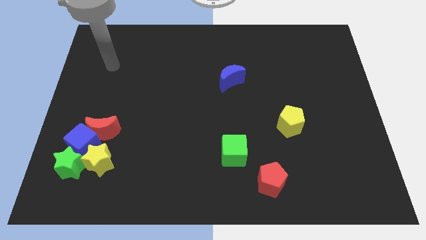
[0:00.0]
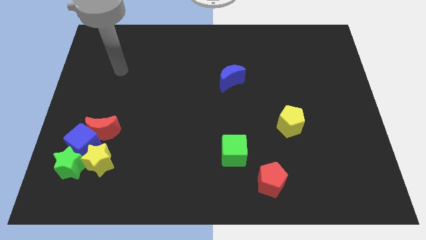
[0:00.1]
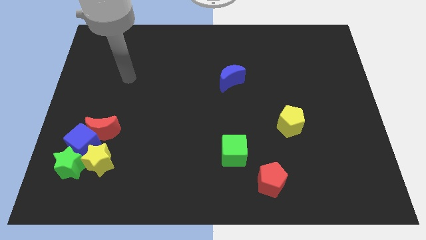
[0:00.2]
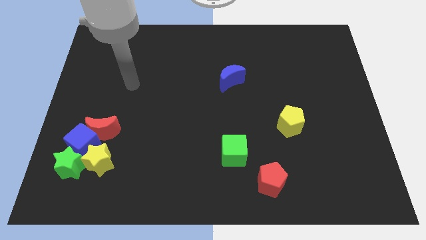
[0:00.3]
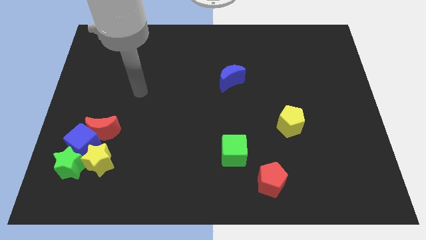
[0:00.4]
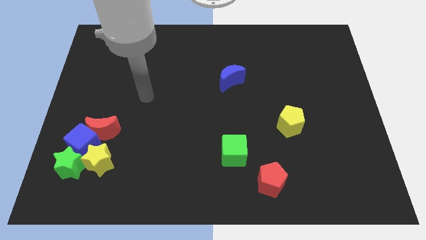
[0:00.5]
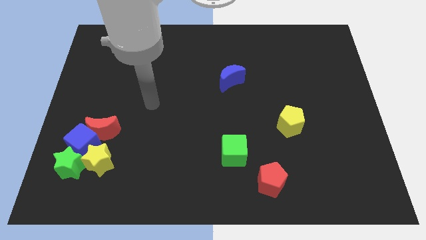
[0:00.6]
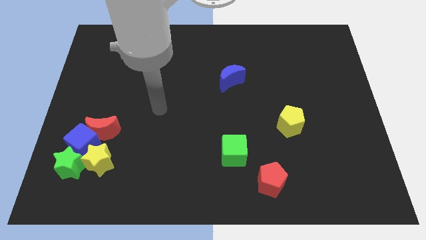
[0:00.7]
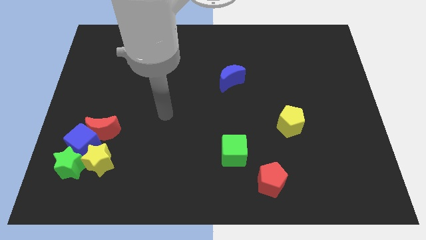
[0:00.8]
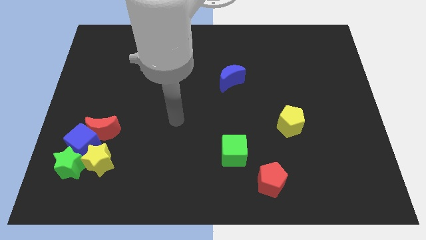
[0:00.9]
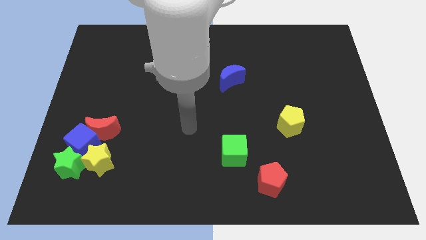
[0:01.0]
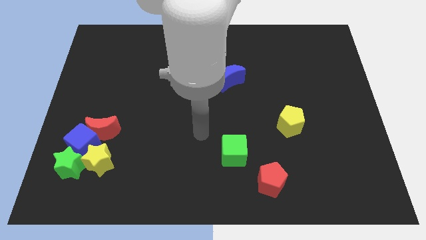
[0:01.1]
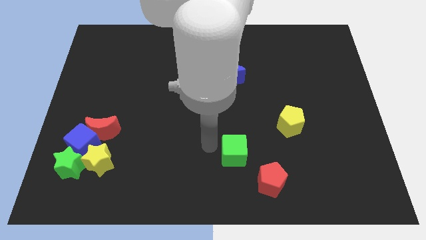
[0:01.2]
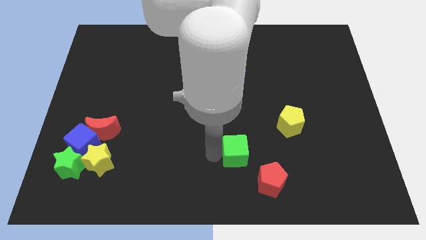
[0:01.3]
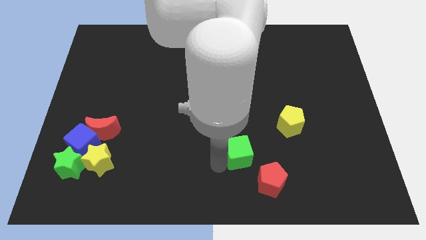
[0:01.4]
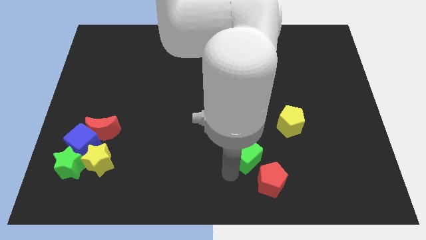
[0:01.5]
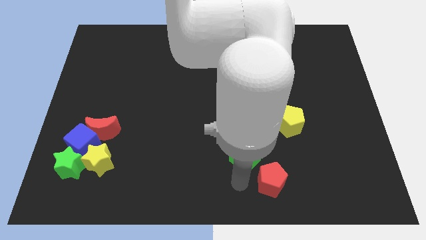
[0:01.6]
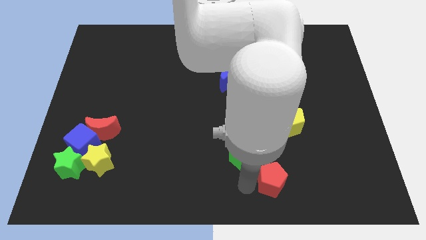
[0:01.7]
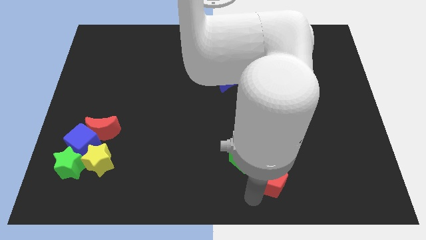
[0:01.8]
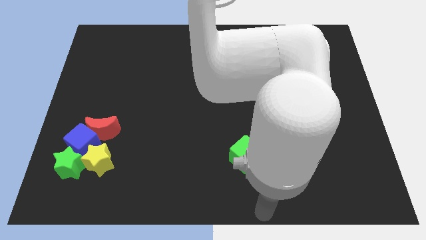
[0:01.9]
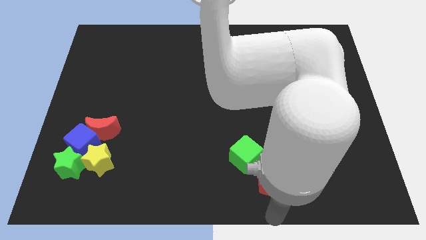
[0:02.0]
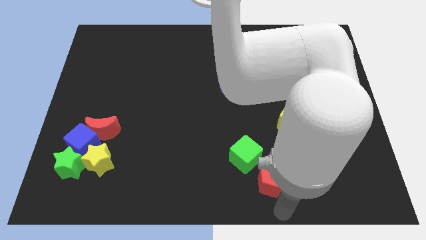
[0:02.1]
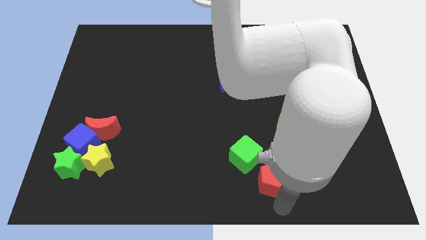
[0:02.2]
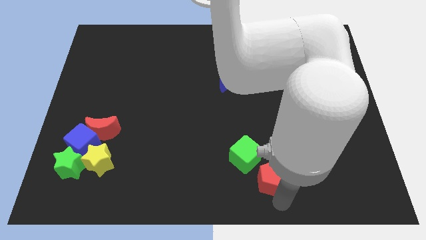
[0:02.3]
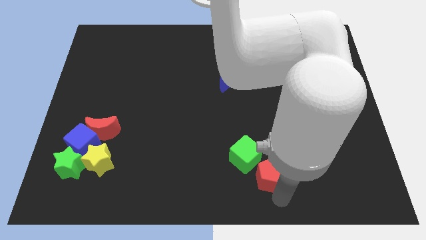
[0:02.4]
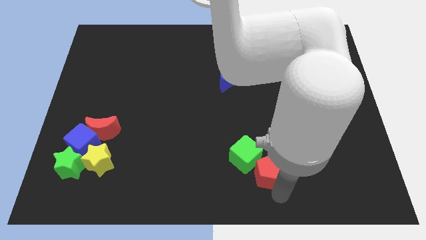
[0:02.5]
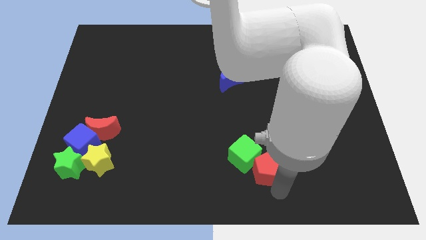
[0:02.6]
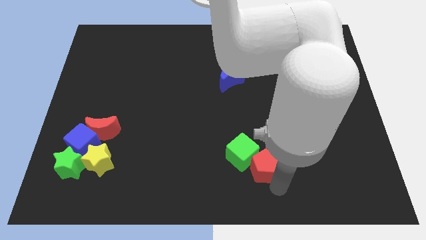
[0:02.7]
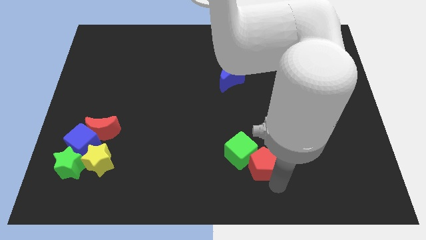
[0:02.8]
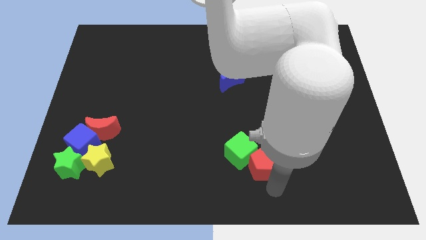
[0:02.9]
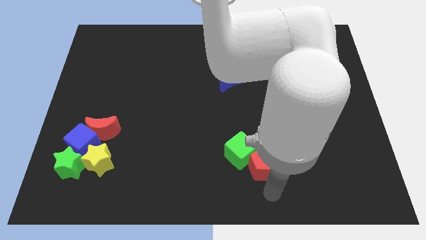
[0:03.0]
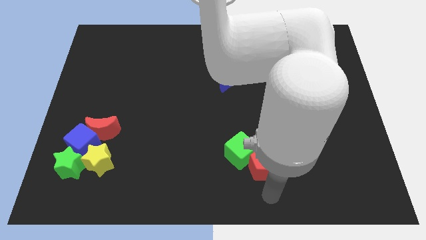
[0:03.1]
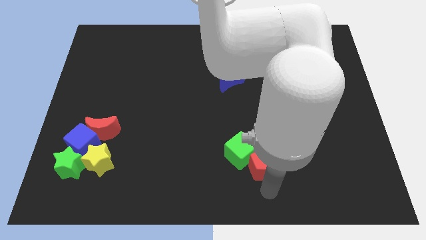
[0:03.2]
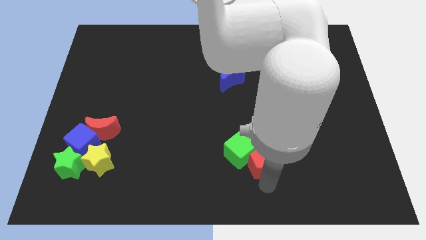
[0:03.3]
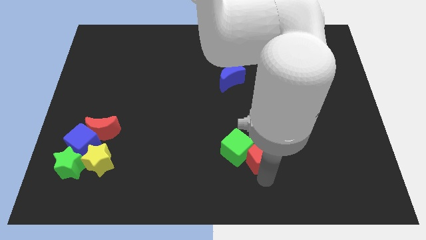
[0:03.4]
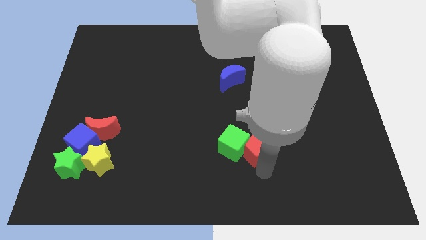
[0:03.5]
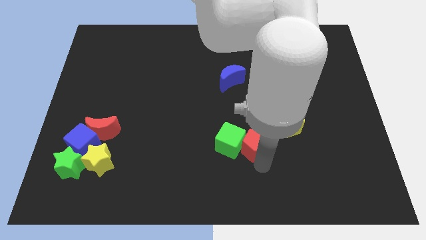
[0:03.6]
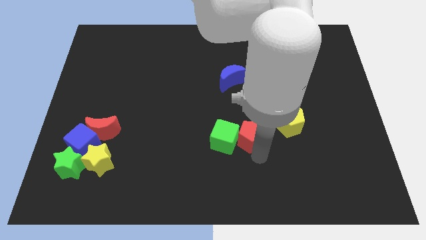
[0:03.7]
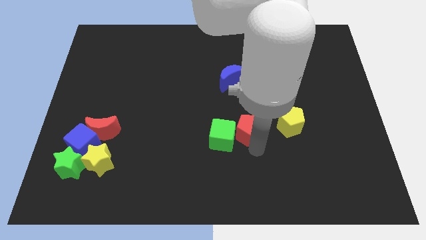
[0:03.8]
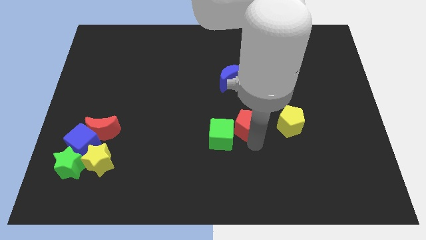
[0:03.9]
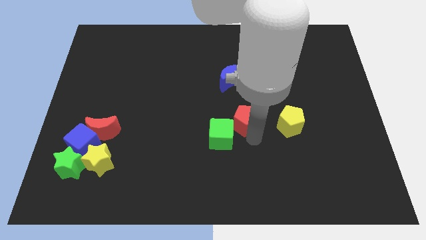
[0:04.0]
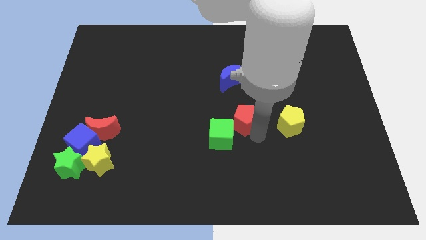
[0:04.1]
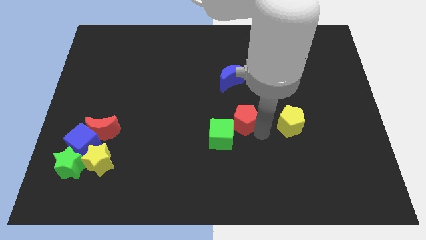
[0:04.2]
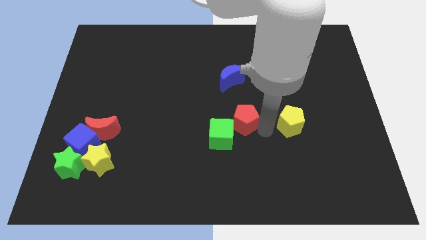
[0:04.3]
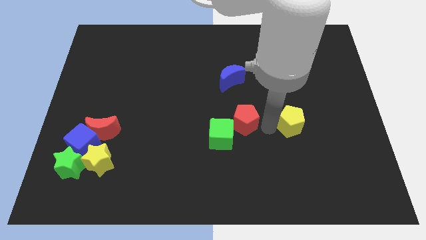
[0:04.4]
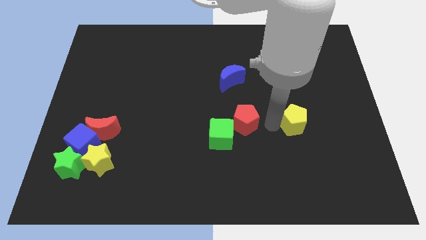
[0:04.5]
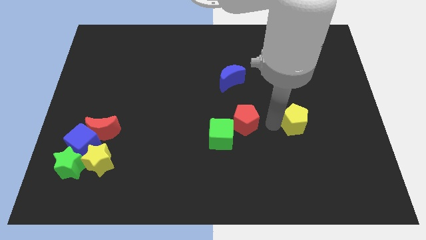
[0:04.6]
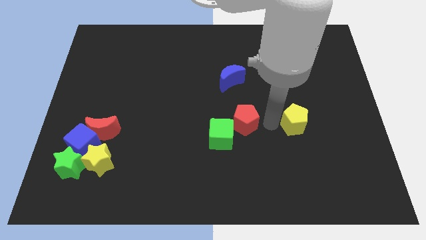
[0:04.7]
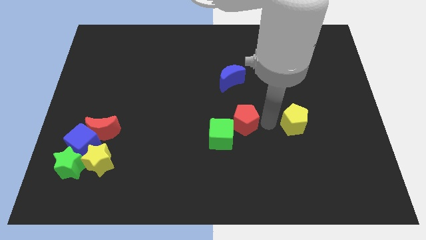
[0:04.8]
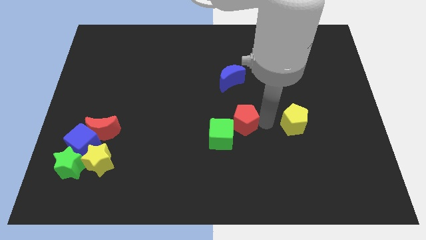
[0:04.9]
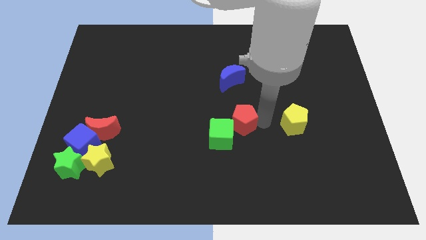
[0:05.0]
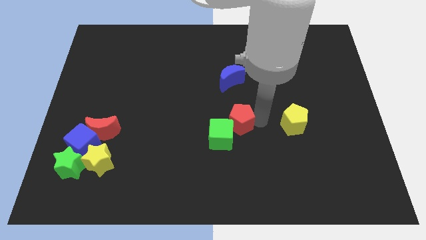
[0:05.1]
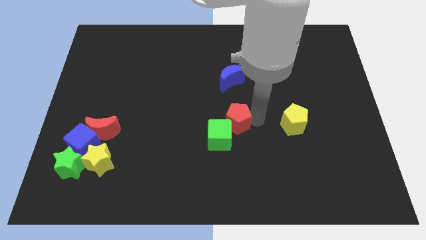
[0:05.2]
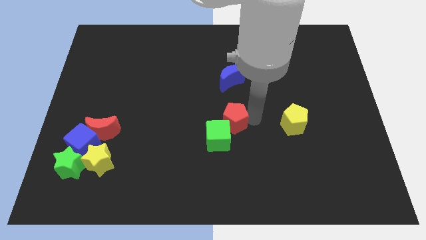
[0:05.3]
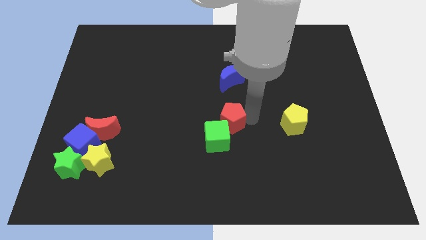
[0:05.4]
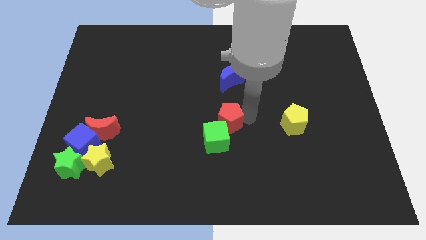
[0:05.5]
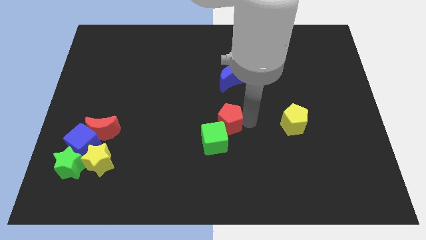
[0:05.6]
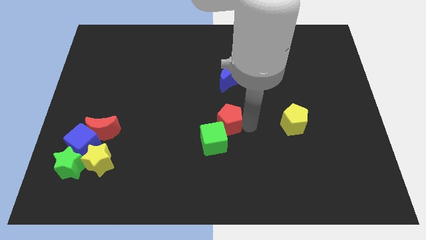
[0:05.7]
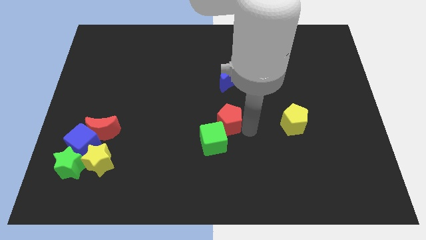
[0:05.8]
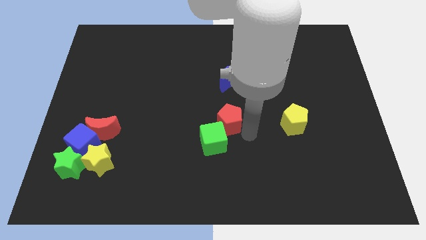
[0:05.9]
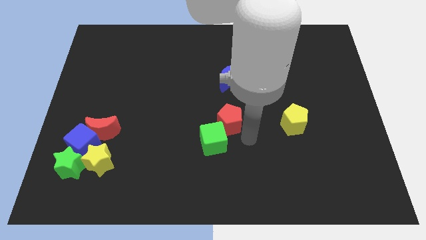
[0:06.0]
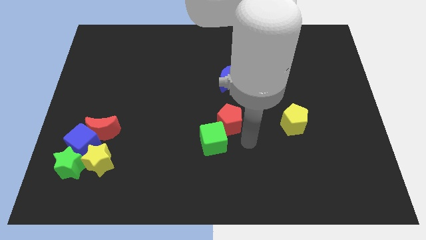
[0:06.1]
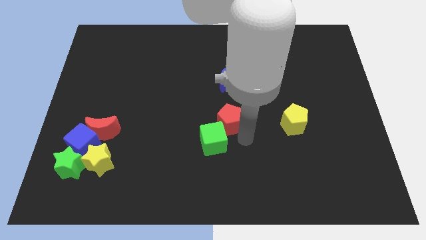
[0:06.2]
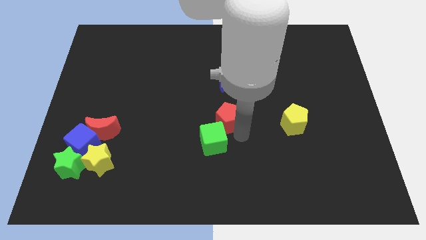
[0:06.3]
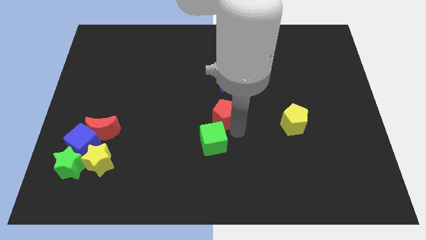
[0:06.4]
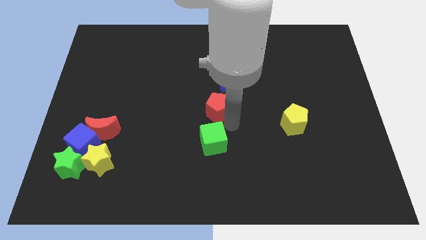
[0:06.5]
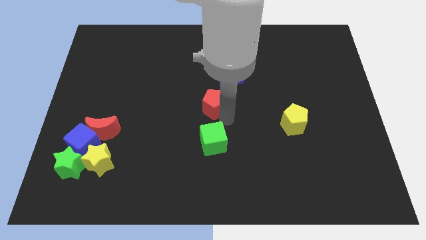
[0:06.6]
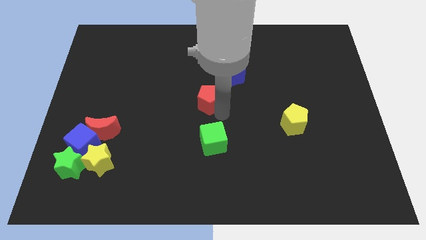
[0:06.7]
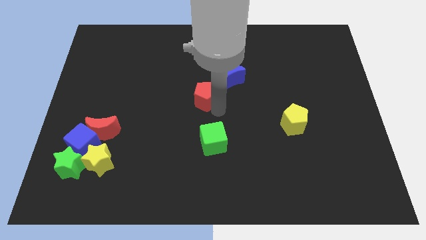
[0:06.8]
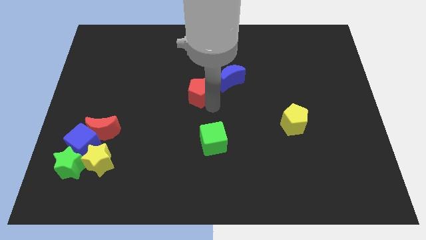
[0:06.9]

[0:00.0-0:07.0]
push the red pentagon just left of the blue moon
